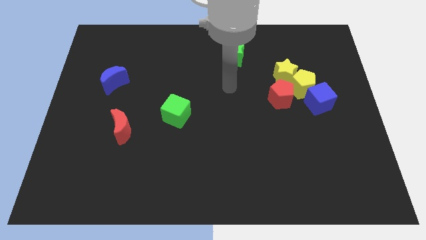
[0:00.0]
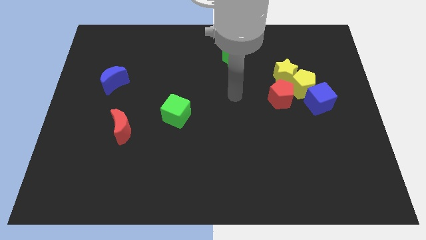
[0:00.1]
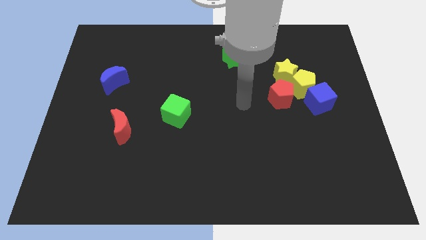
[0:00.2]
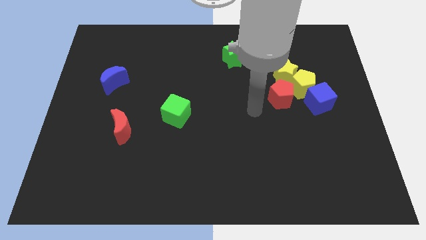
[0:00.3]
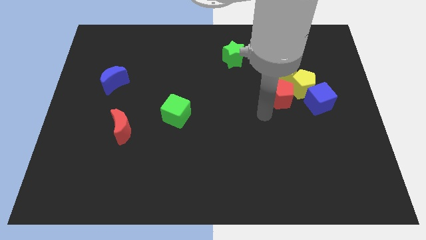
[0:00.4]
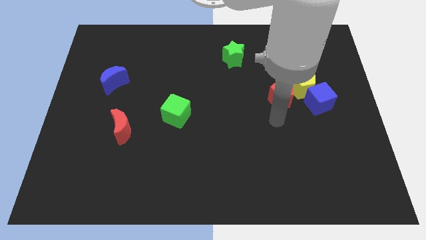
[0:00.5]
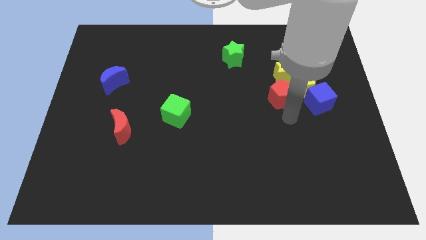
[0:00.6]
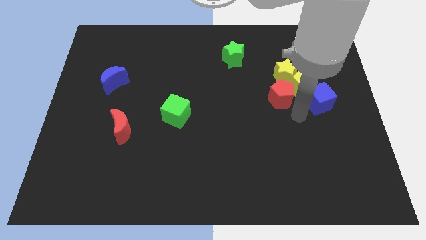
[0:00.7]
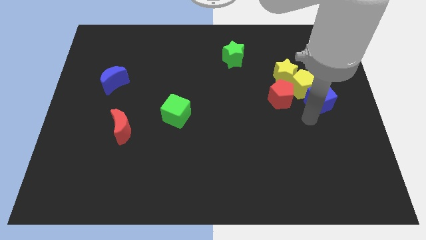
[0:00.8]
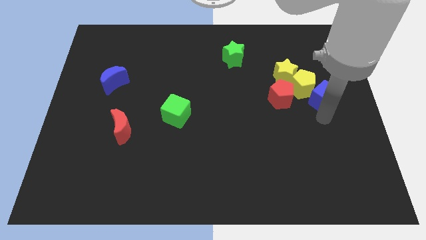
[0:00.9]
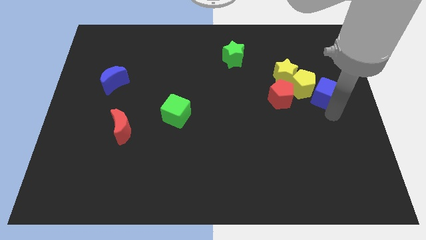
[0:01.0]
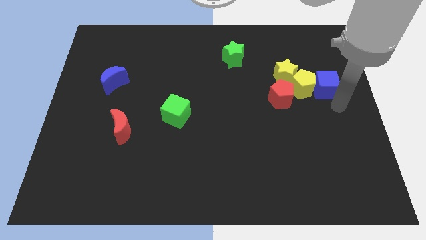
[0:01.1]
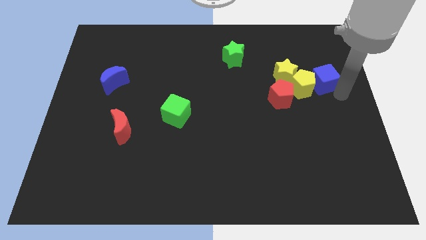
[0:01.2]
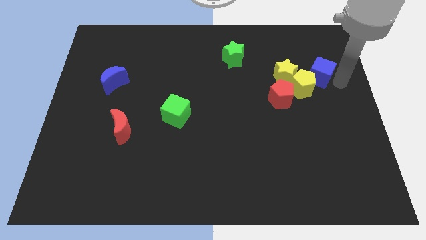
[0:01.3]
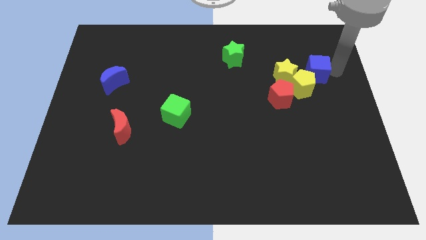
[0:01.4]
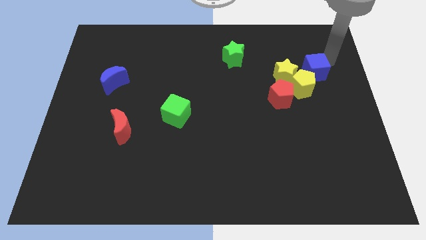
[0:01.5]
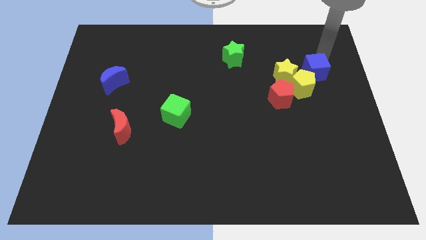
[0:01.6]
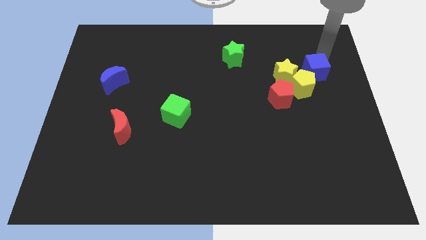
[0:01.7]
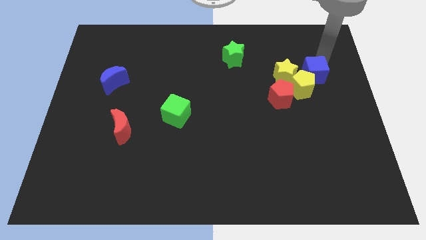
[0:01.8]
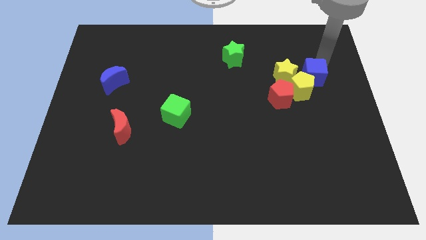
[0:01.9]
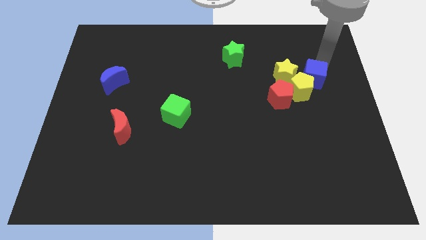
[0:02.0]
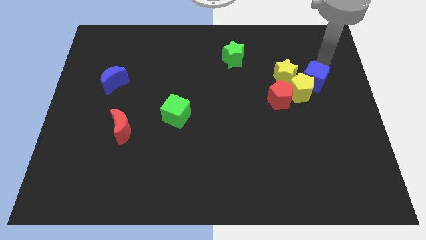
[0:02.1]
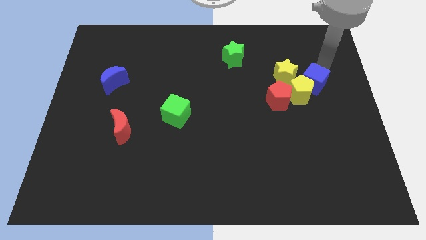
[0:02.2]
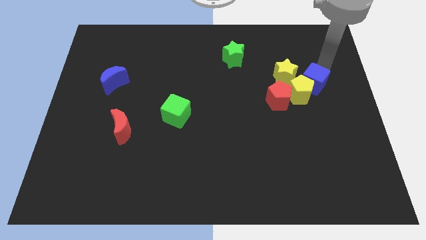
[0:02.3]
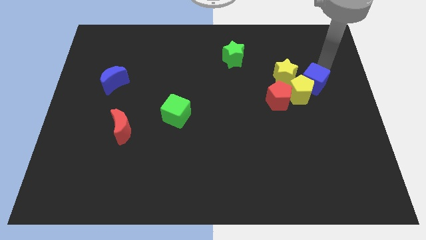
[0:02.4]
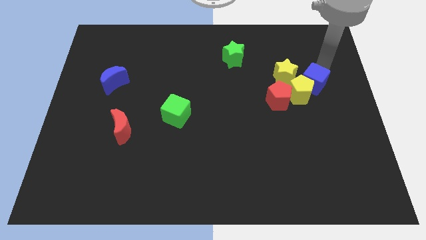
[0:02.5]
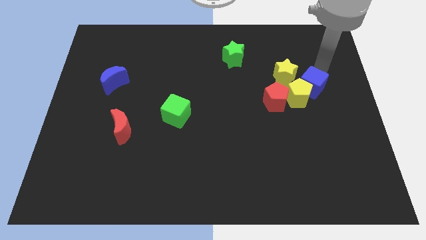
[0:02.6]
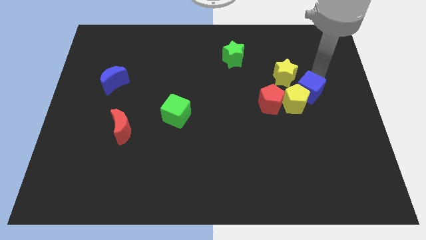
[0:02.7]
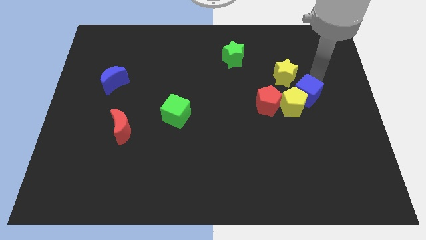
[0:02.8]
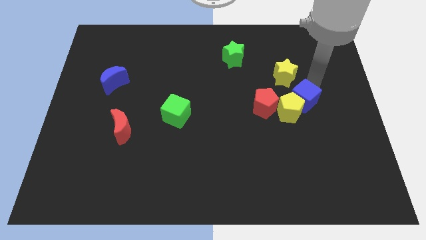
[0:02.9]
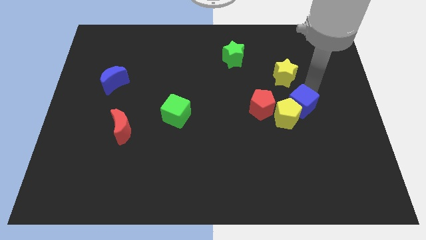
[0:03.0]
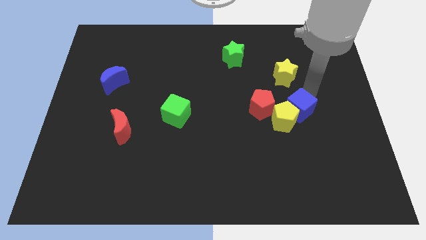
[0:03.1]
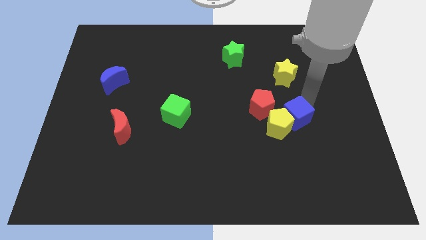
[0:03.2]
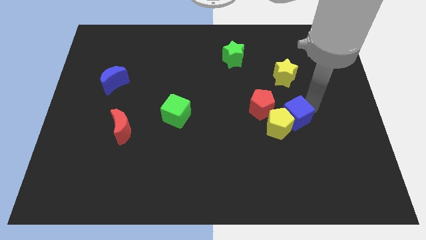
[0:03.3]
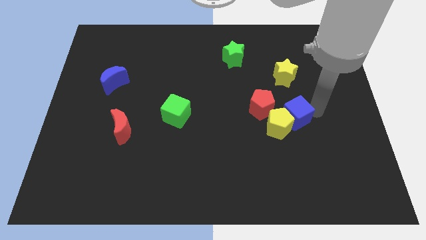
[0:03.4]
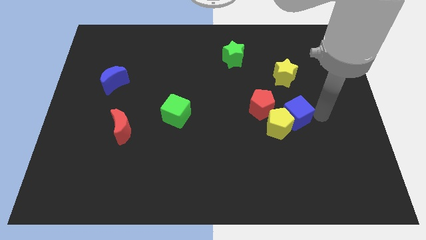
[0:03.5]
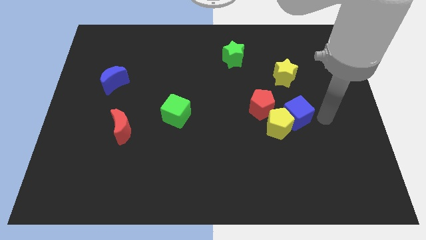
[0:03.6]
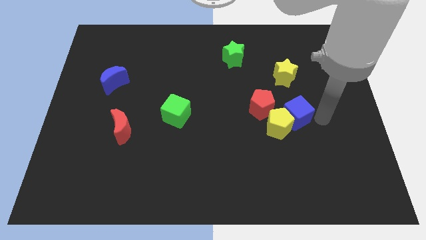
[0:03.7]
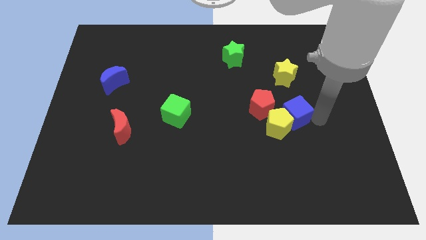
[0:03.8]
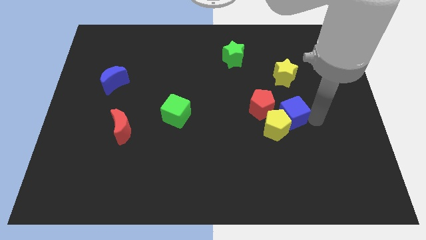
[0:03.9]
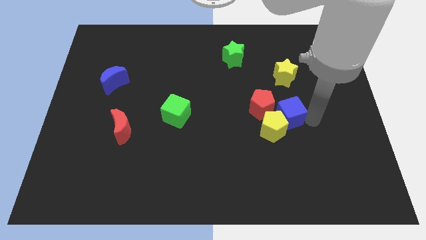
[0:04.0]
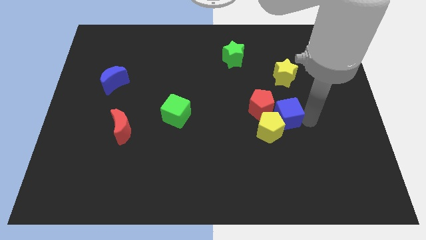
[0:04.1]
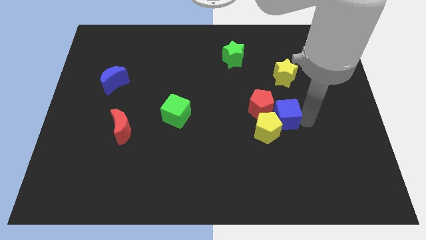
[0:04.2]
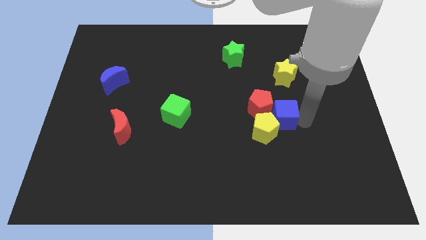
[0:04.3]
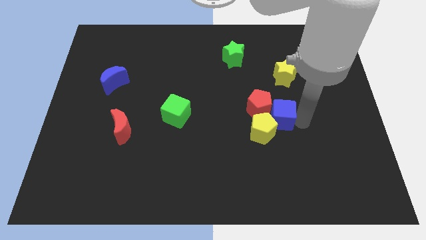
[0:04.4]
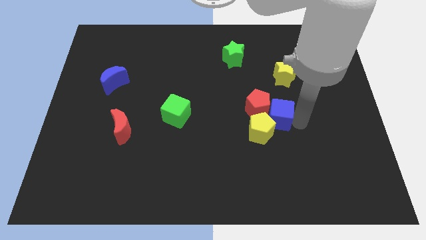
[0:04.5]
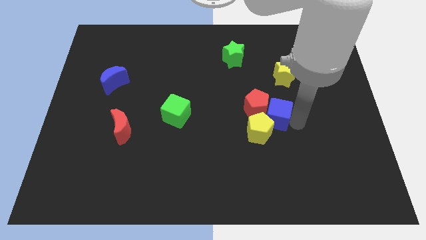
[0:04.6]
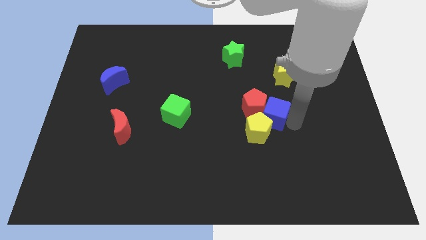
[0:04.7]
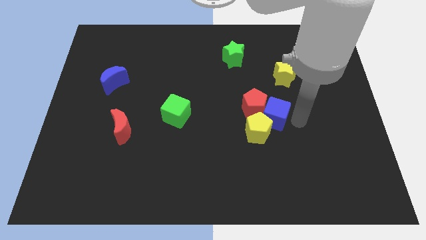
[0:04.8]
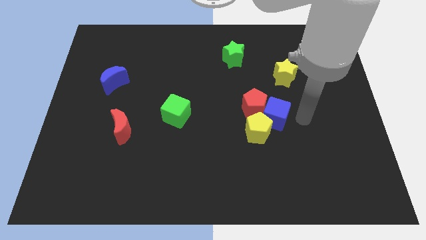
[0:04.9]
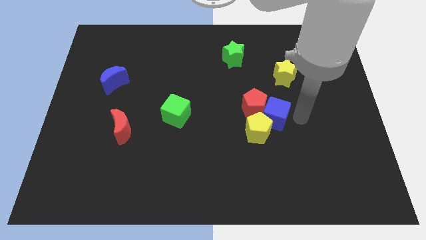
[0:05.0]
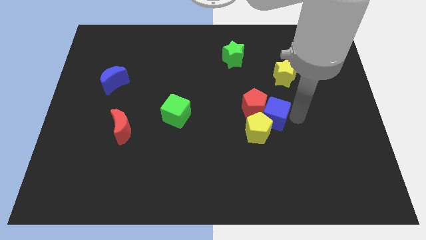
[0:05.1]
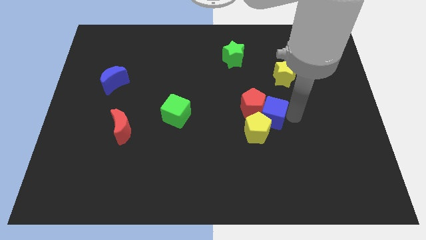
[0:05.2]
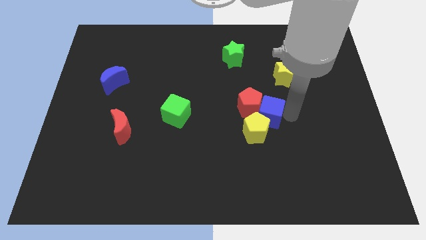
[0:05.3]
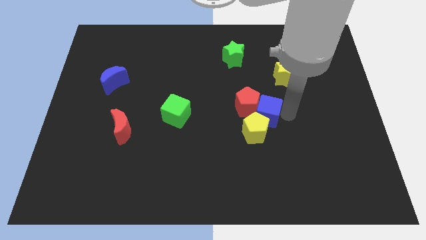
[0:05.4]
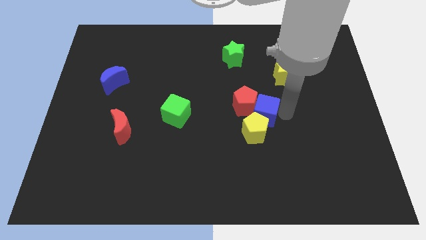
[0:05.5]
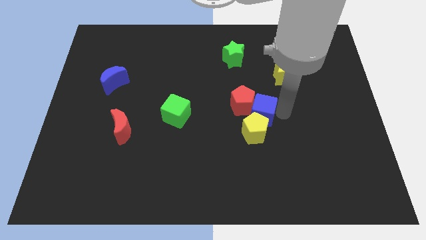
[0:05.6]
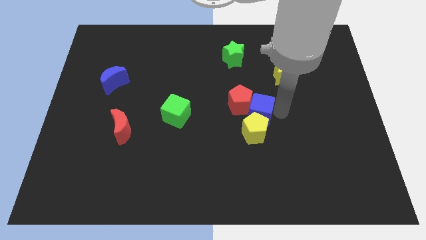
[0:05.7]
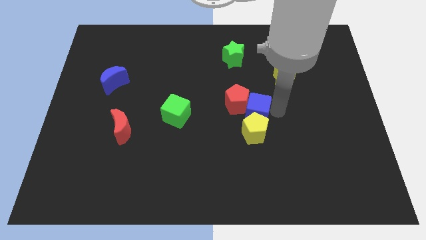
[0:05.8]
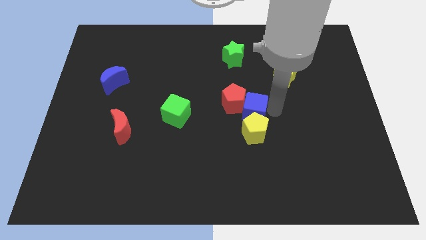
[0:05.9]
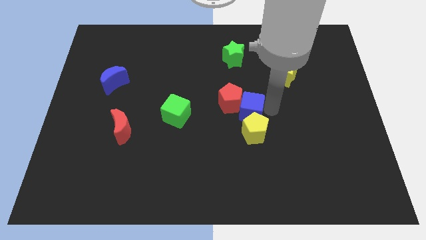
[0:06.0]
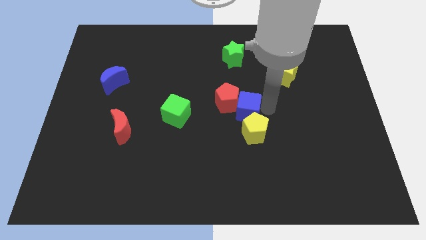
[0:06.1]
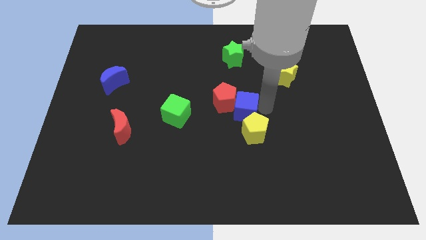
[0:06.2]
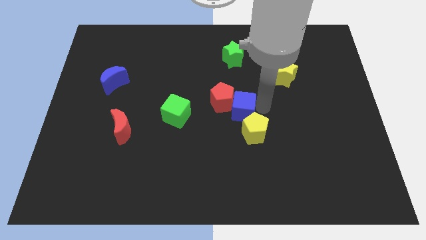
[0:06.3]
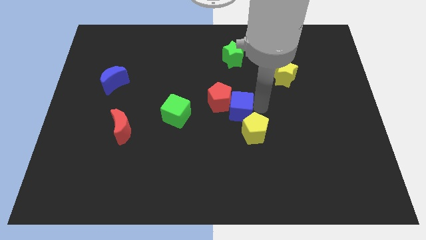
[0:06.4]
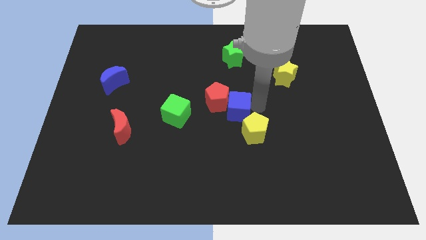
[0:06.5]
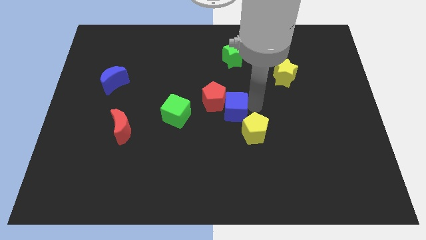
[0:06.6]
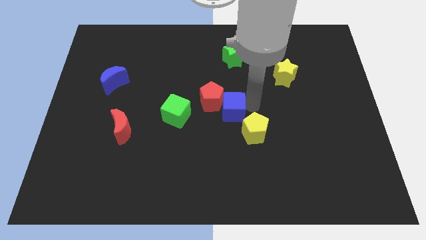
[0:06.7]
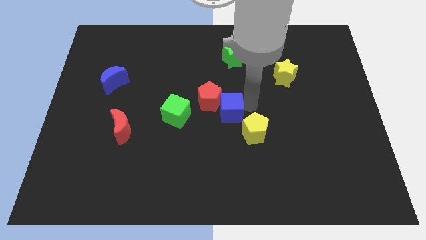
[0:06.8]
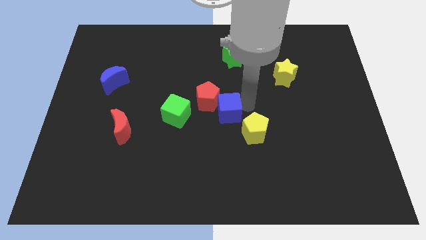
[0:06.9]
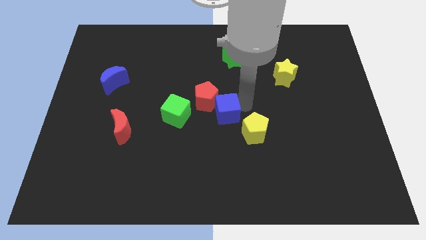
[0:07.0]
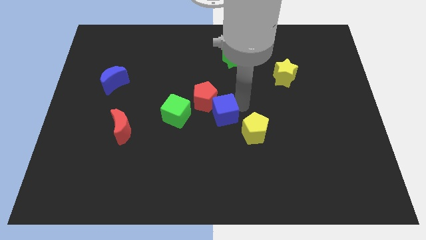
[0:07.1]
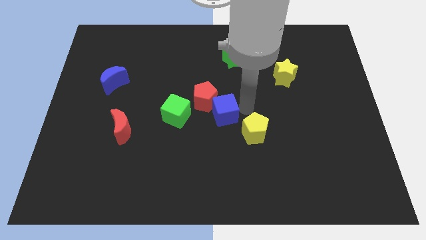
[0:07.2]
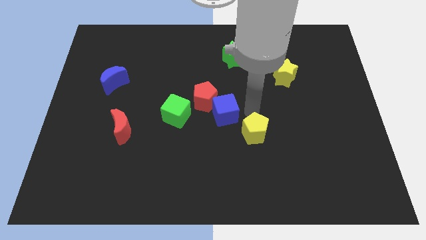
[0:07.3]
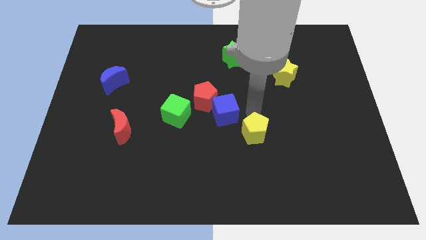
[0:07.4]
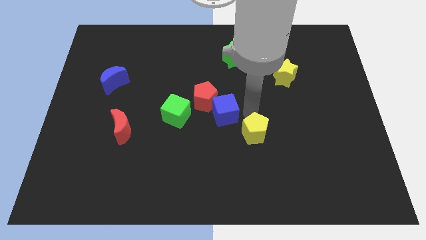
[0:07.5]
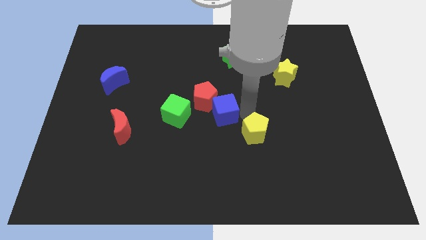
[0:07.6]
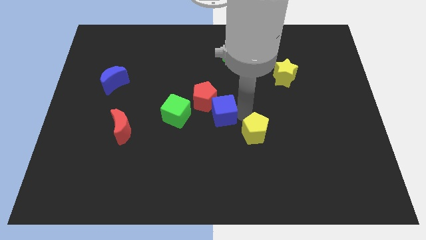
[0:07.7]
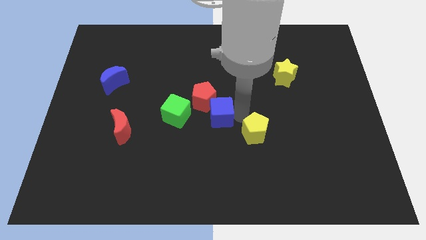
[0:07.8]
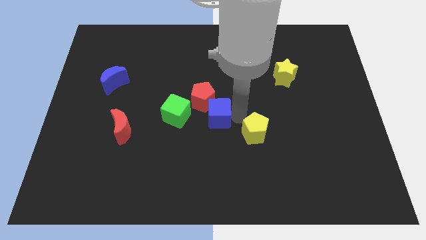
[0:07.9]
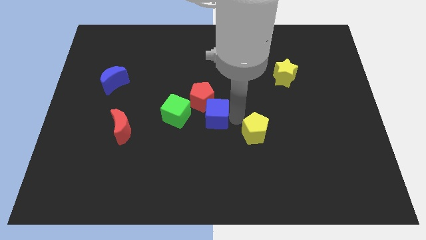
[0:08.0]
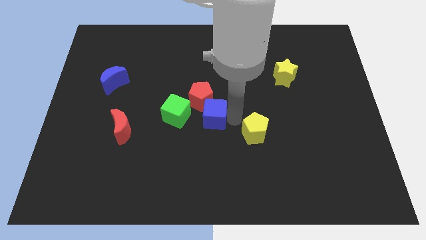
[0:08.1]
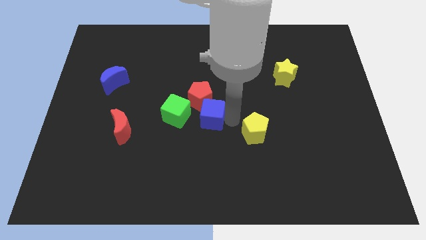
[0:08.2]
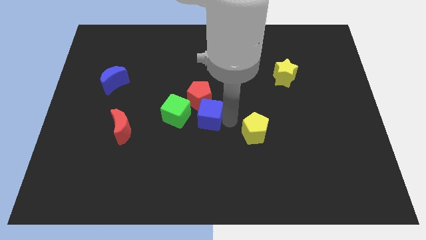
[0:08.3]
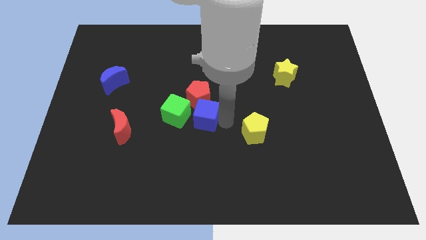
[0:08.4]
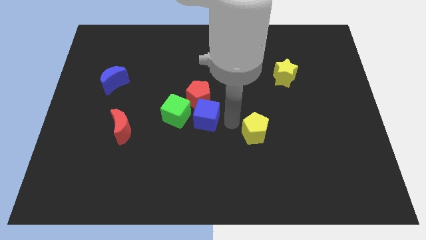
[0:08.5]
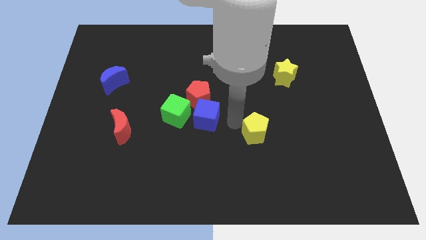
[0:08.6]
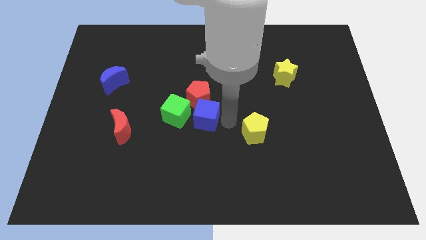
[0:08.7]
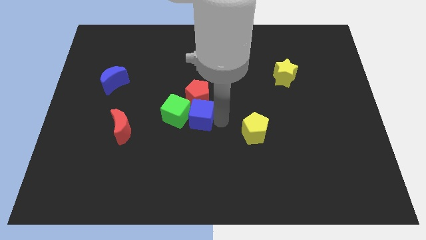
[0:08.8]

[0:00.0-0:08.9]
move the blue cube next to the green cube
